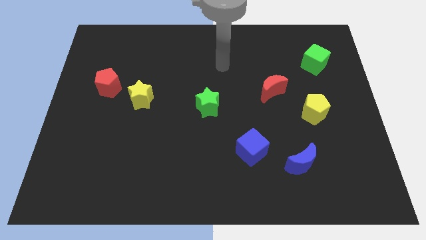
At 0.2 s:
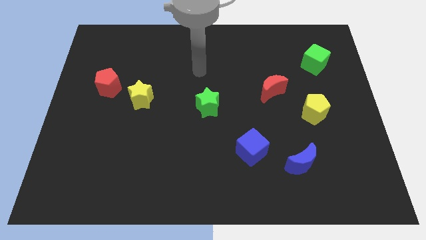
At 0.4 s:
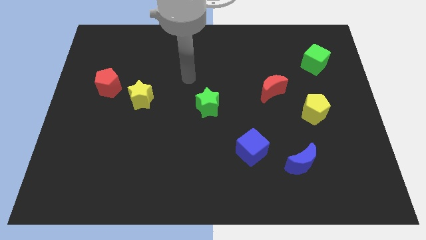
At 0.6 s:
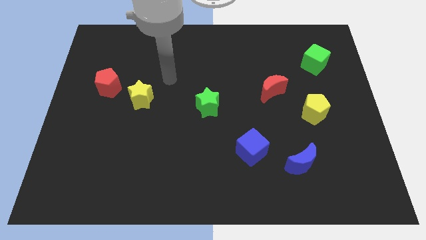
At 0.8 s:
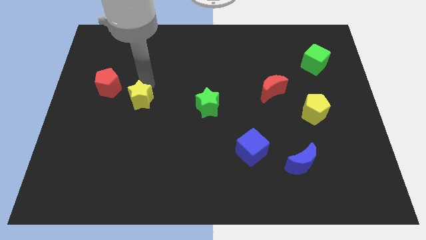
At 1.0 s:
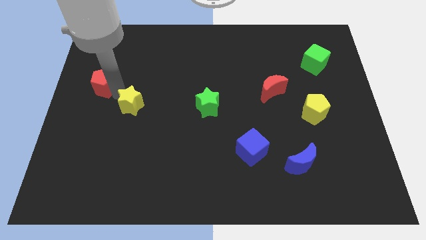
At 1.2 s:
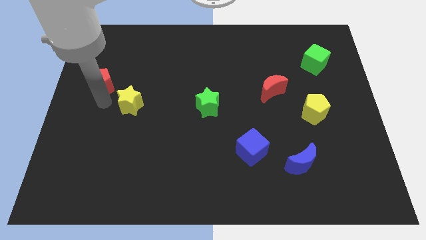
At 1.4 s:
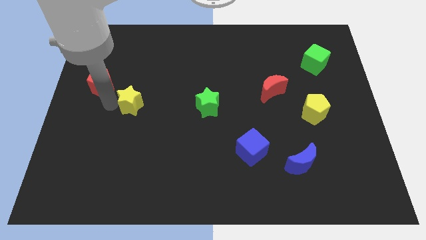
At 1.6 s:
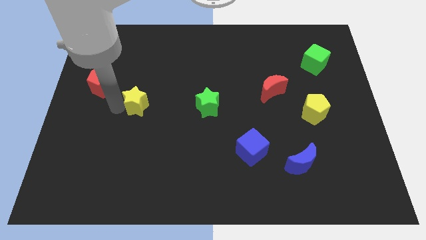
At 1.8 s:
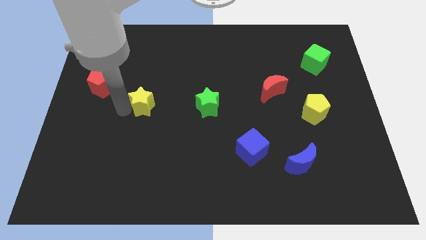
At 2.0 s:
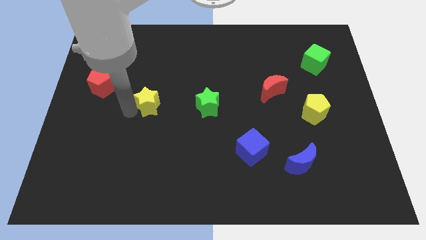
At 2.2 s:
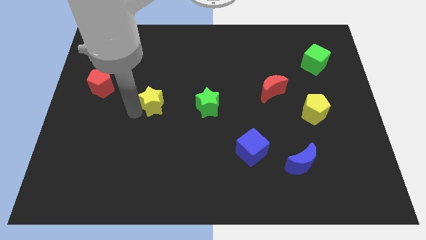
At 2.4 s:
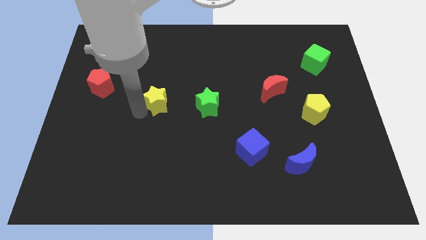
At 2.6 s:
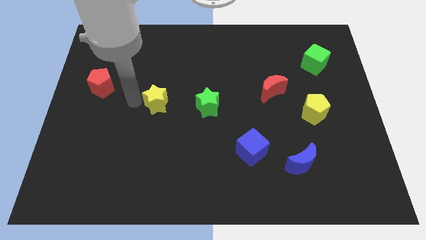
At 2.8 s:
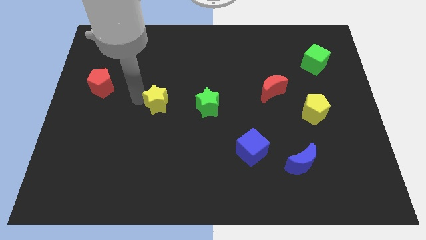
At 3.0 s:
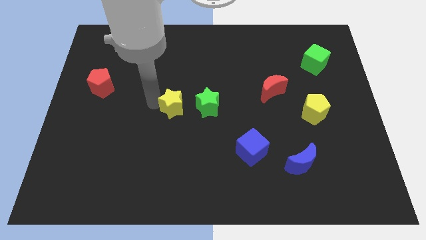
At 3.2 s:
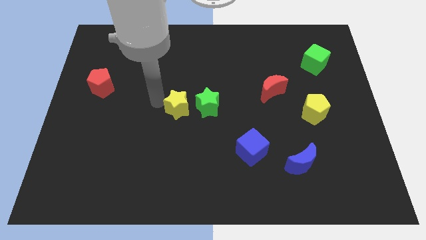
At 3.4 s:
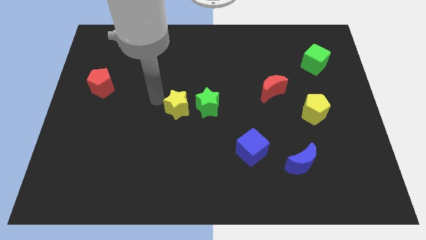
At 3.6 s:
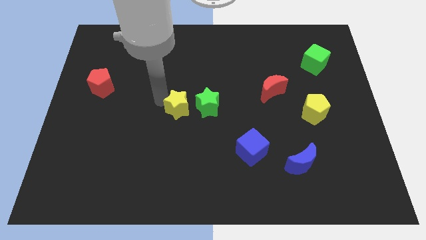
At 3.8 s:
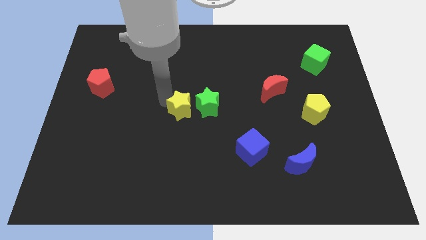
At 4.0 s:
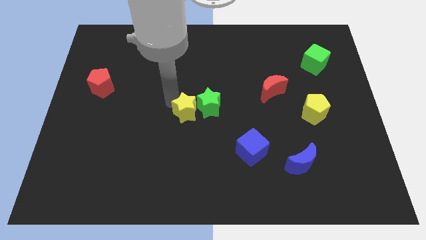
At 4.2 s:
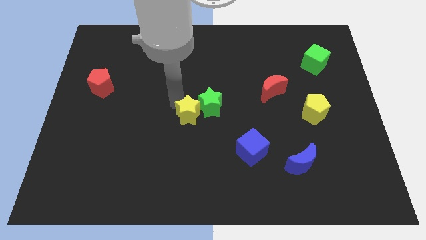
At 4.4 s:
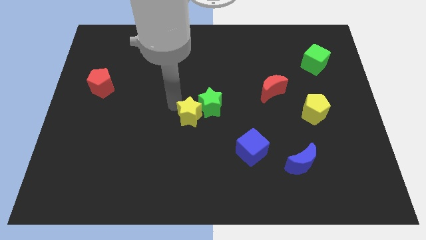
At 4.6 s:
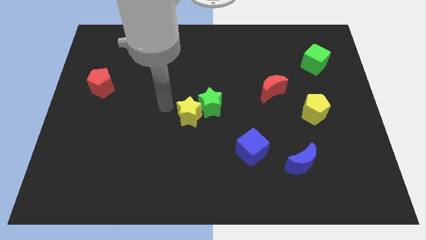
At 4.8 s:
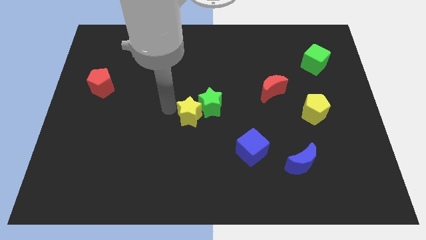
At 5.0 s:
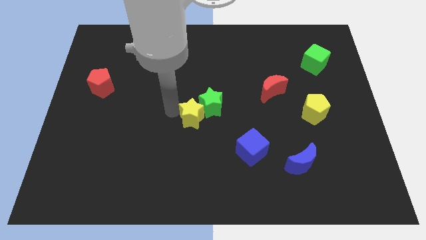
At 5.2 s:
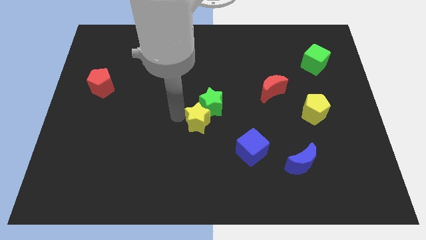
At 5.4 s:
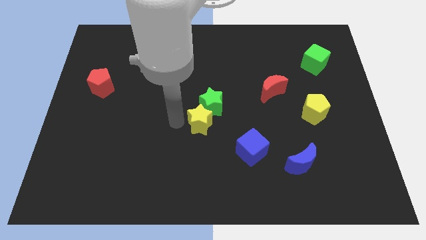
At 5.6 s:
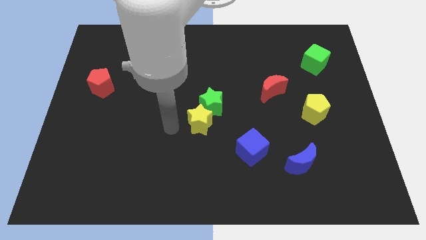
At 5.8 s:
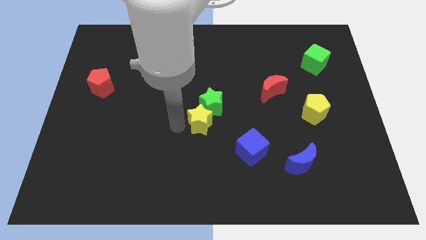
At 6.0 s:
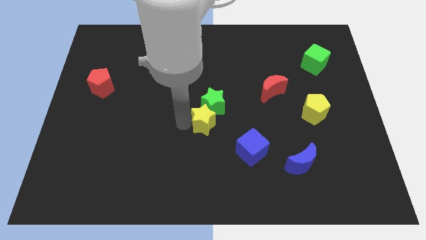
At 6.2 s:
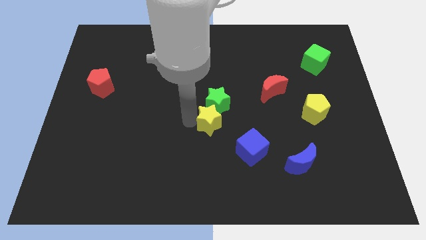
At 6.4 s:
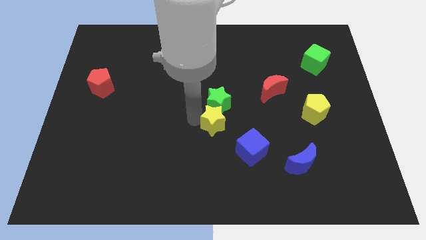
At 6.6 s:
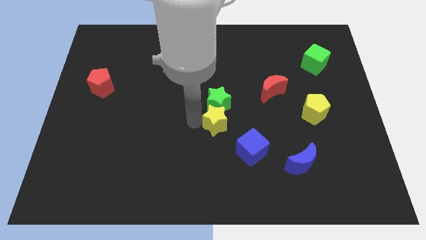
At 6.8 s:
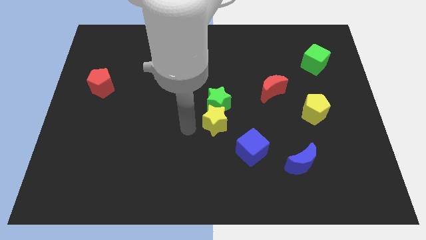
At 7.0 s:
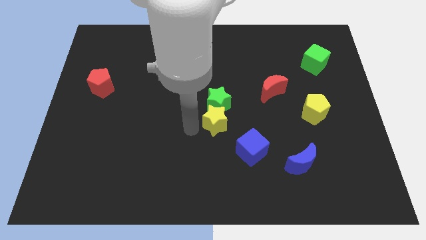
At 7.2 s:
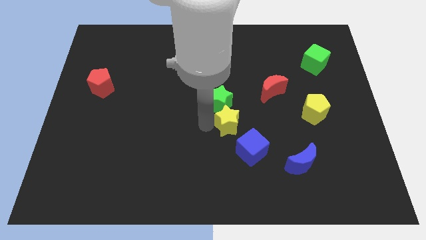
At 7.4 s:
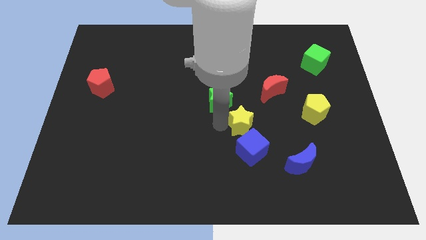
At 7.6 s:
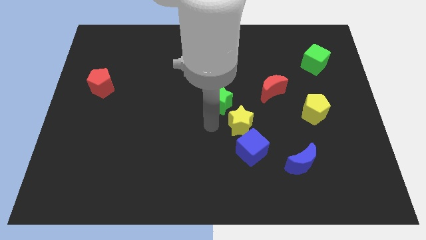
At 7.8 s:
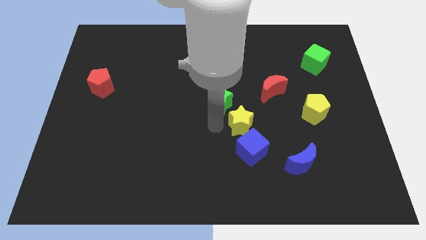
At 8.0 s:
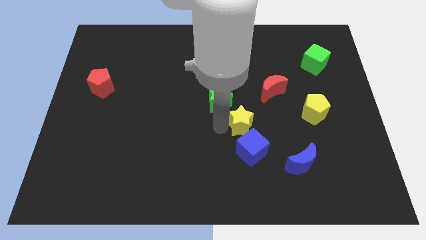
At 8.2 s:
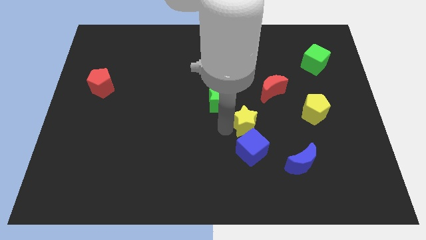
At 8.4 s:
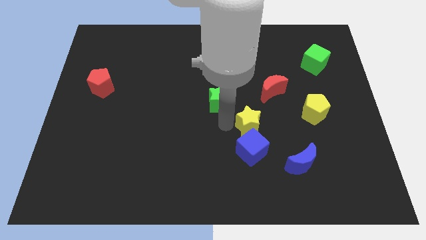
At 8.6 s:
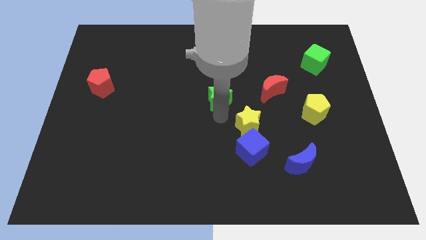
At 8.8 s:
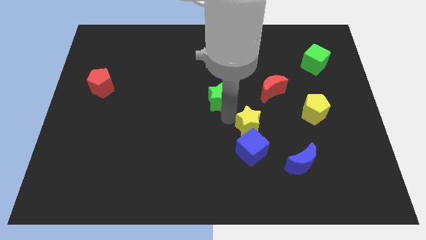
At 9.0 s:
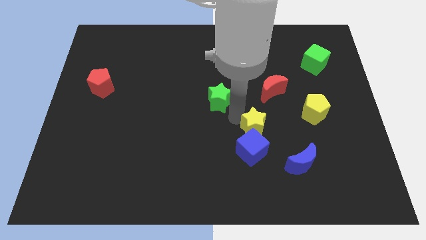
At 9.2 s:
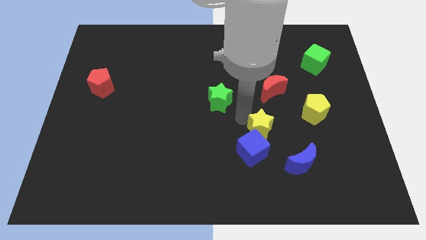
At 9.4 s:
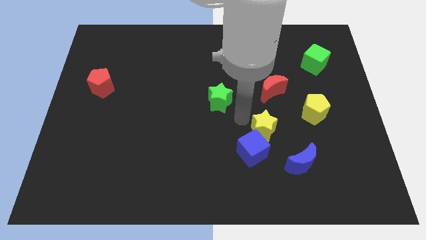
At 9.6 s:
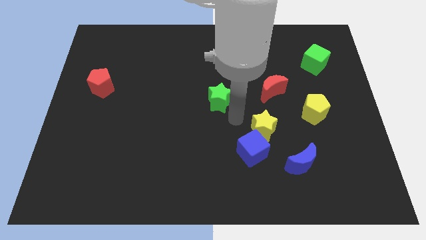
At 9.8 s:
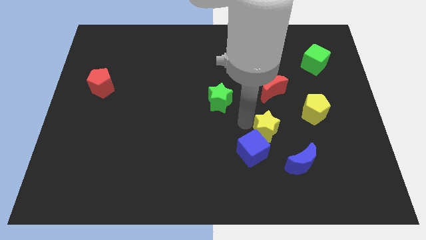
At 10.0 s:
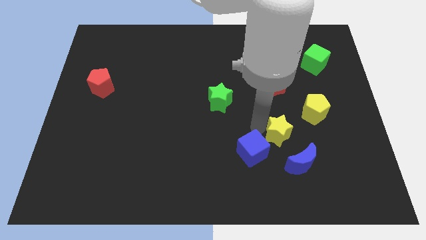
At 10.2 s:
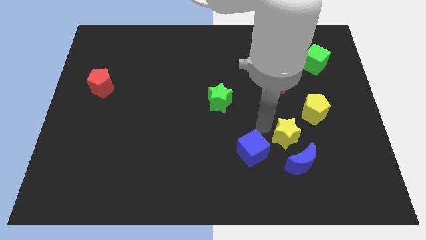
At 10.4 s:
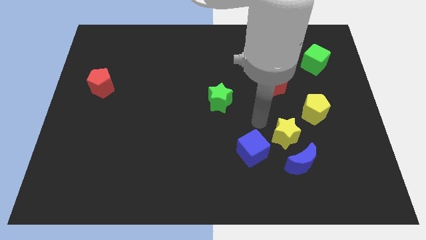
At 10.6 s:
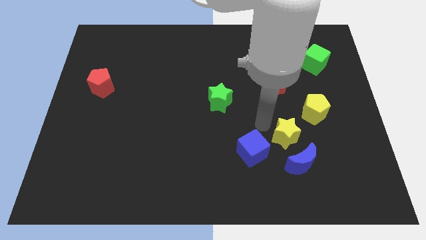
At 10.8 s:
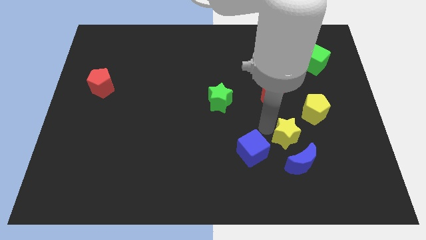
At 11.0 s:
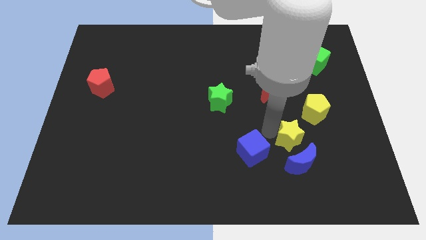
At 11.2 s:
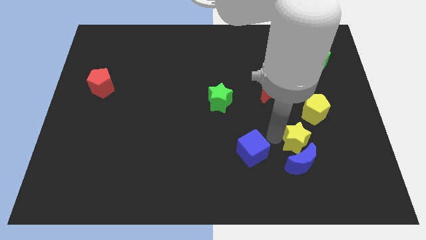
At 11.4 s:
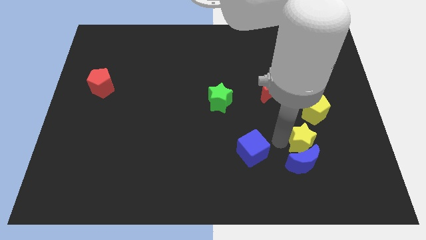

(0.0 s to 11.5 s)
slide the yellow star to the bottom side of the yellow pentagon
